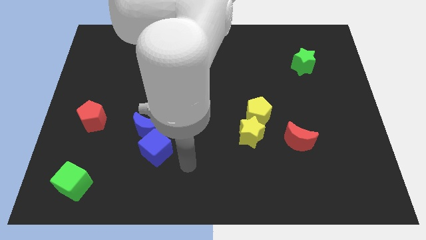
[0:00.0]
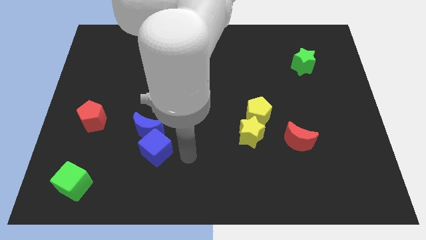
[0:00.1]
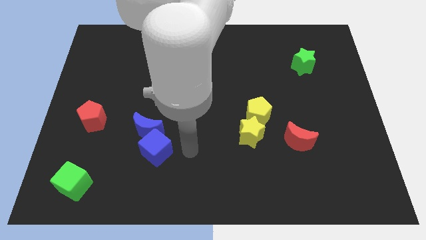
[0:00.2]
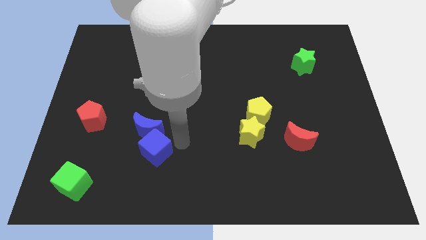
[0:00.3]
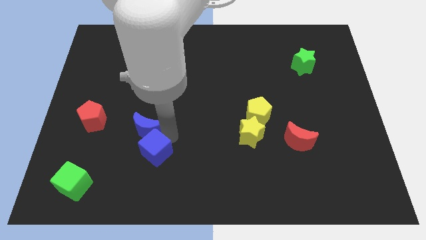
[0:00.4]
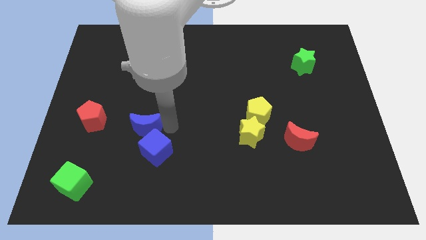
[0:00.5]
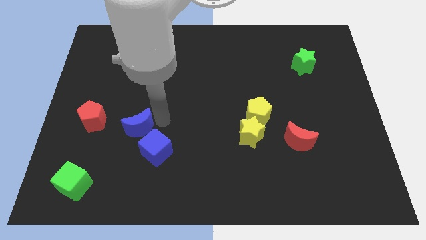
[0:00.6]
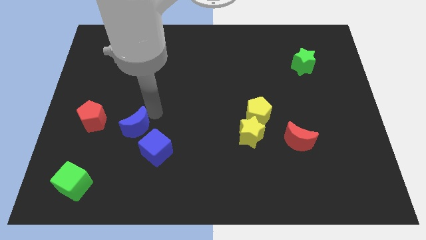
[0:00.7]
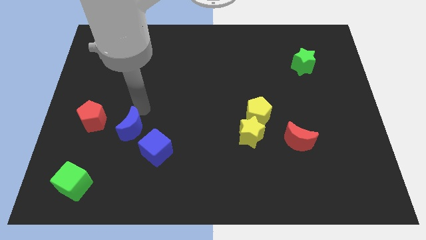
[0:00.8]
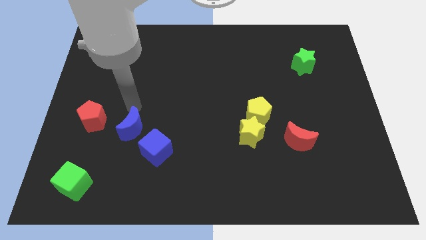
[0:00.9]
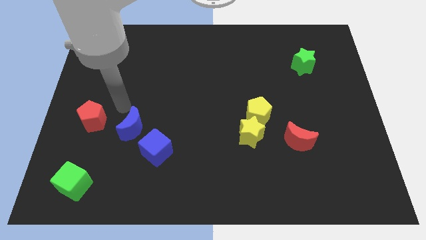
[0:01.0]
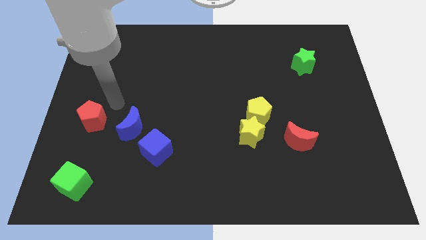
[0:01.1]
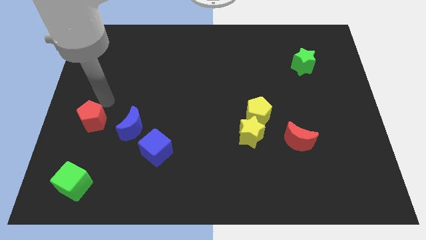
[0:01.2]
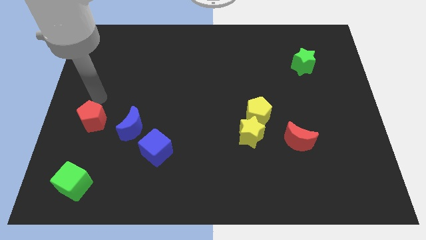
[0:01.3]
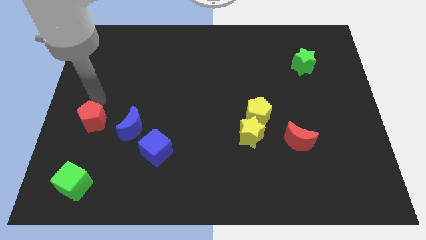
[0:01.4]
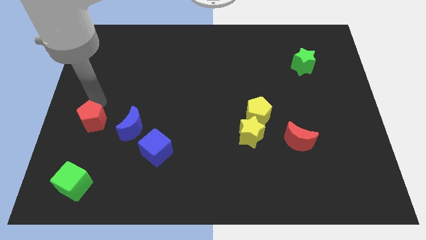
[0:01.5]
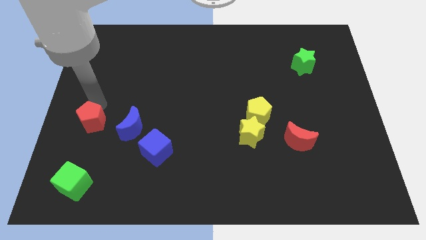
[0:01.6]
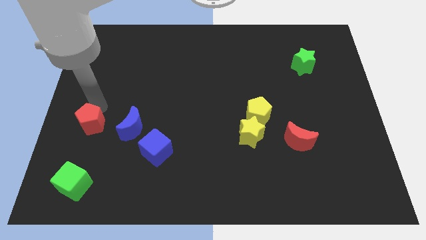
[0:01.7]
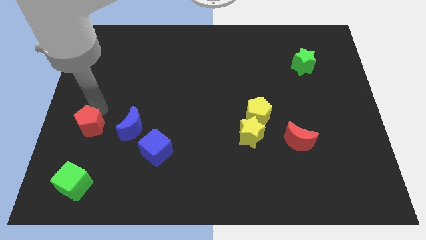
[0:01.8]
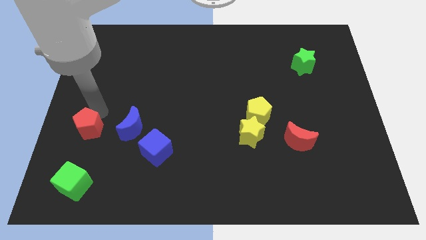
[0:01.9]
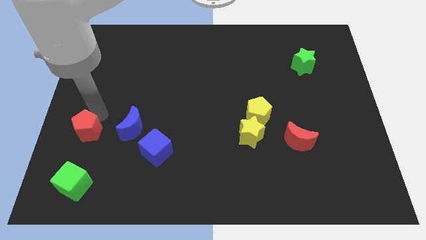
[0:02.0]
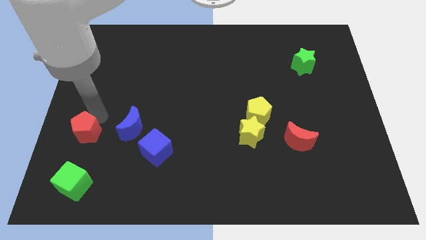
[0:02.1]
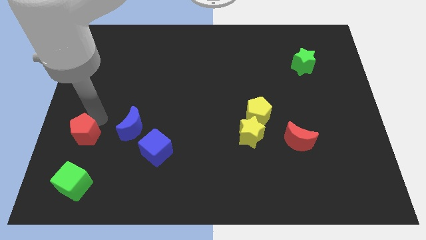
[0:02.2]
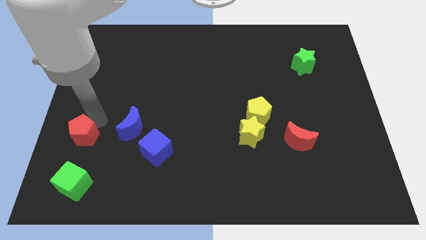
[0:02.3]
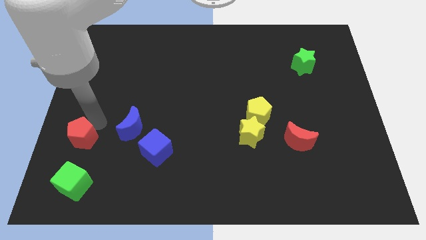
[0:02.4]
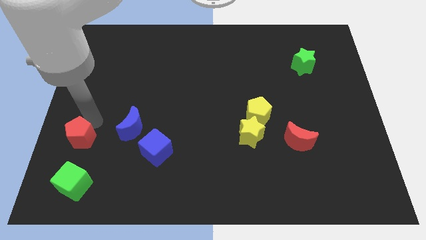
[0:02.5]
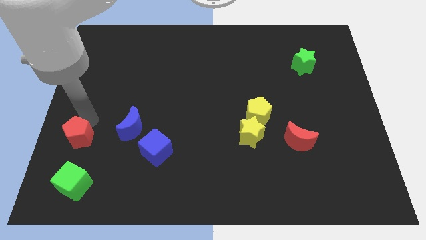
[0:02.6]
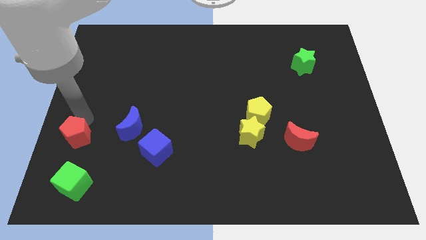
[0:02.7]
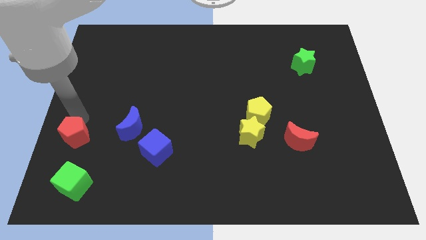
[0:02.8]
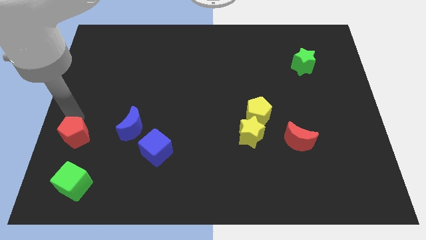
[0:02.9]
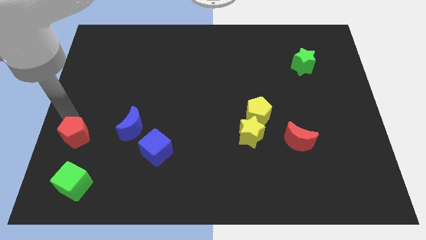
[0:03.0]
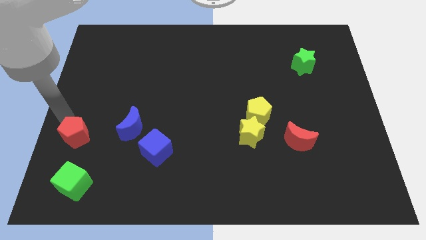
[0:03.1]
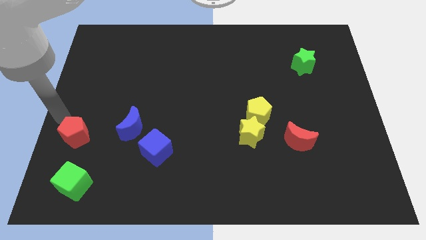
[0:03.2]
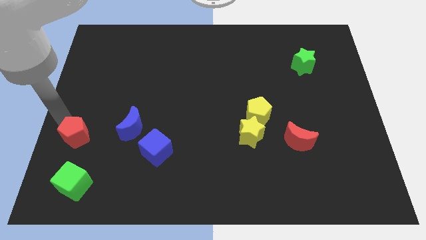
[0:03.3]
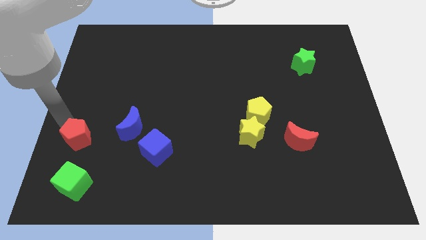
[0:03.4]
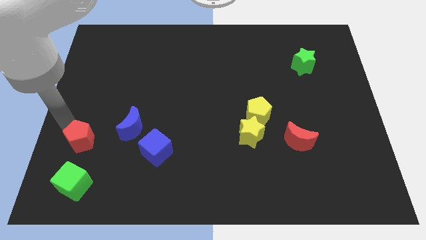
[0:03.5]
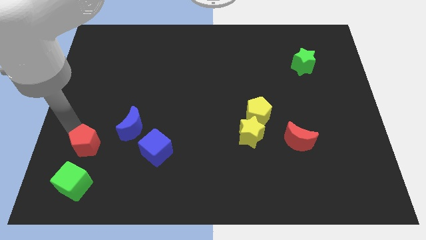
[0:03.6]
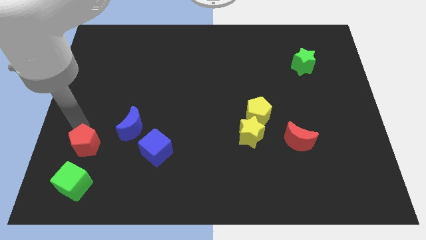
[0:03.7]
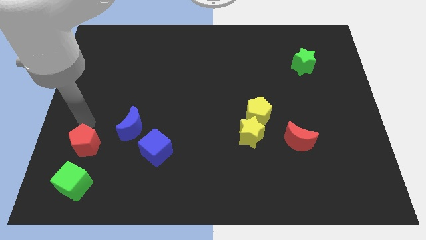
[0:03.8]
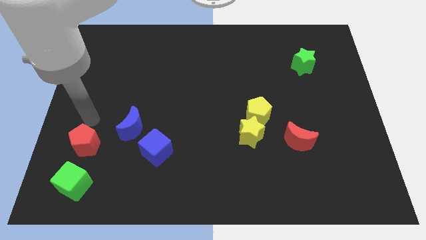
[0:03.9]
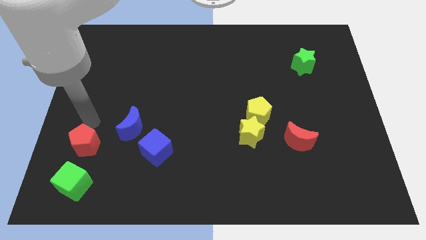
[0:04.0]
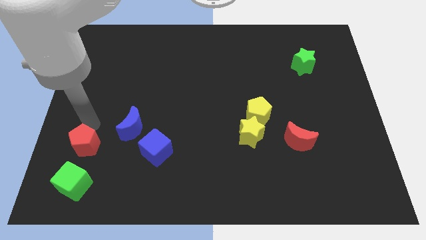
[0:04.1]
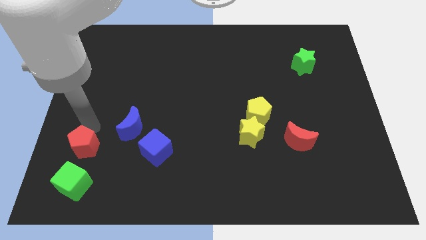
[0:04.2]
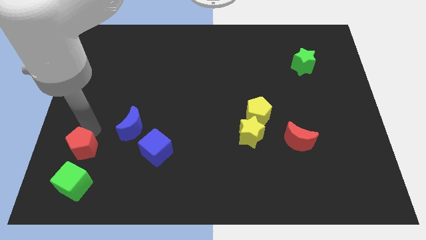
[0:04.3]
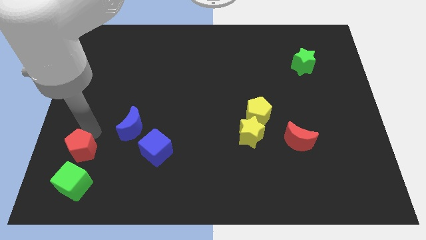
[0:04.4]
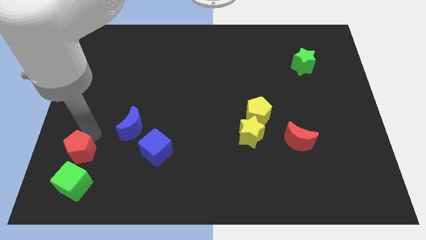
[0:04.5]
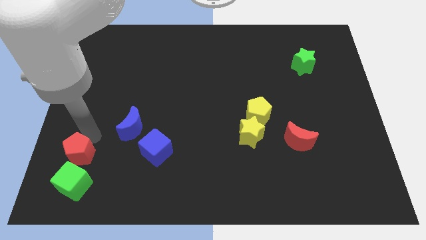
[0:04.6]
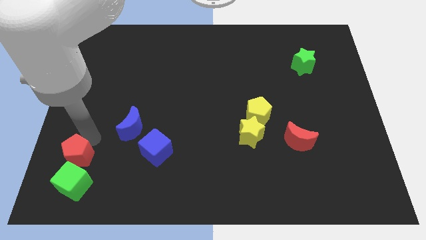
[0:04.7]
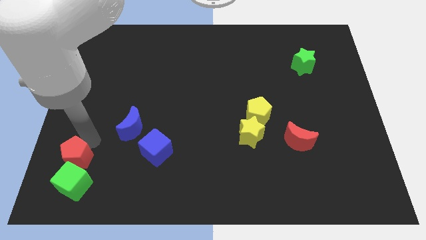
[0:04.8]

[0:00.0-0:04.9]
put the red pentagon close to the green cube

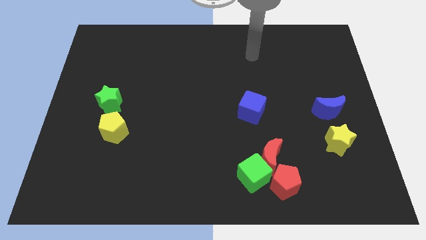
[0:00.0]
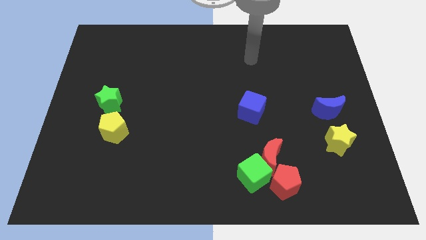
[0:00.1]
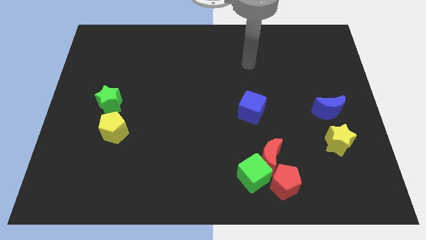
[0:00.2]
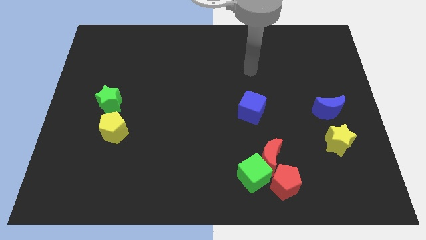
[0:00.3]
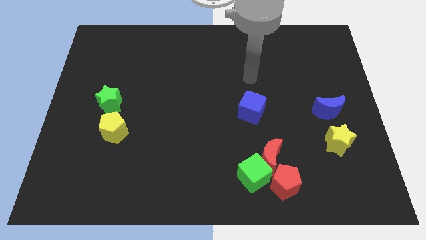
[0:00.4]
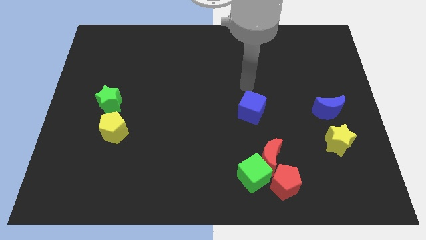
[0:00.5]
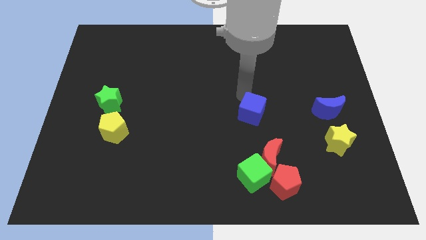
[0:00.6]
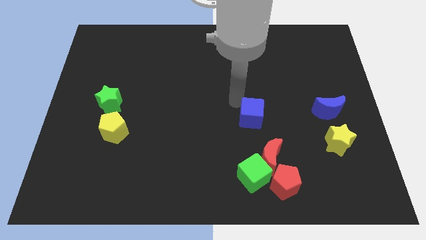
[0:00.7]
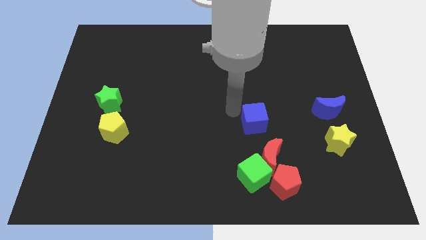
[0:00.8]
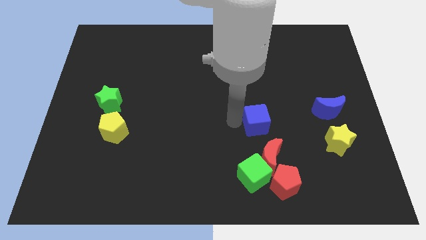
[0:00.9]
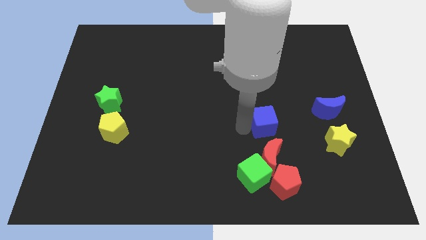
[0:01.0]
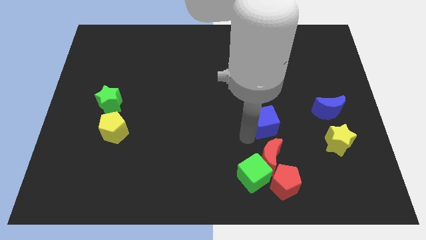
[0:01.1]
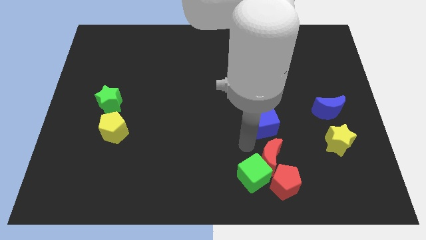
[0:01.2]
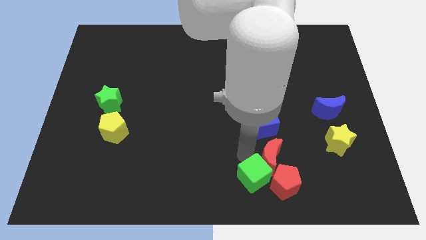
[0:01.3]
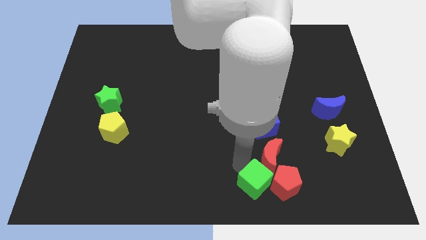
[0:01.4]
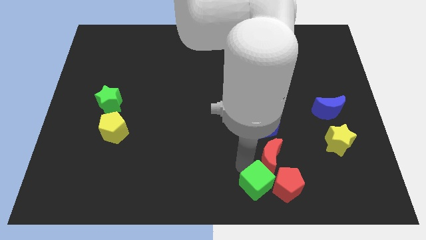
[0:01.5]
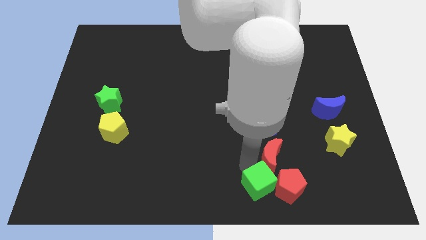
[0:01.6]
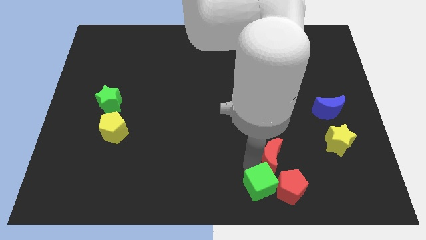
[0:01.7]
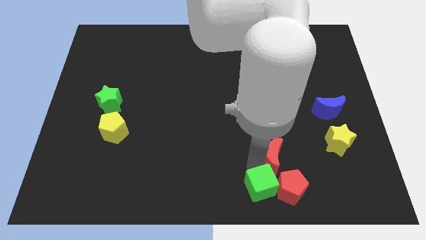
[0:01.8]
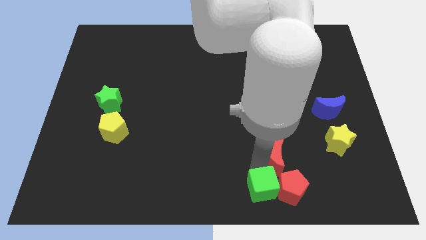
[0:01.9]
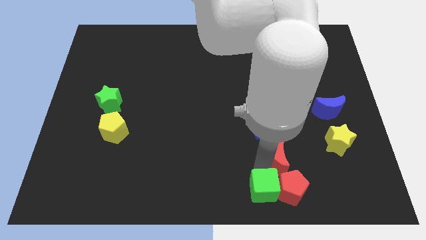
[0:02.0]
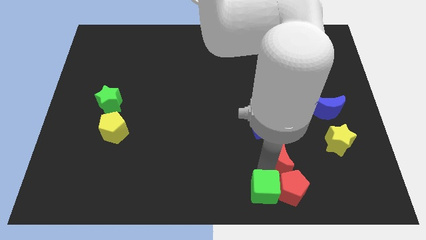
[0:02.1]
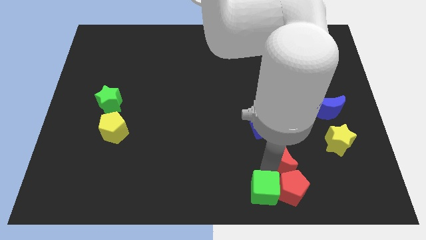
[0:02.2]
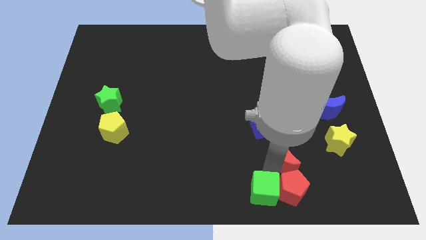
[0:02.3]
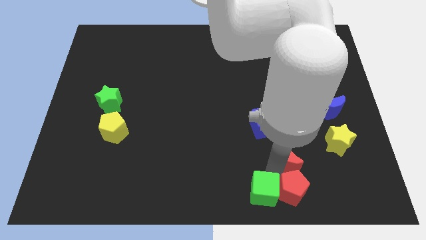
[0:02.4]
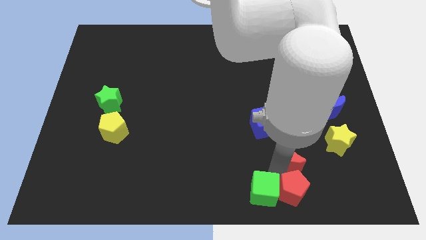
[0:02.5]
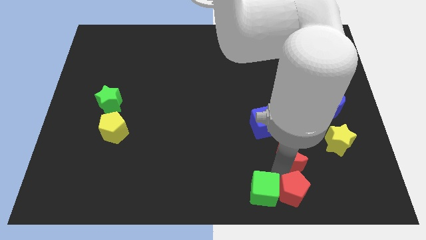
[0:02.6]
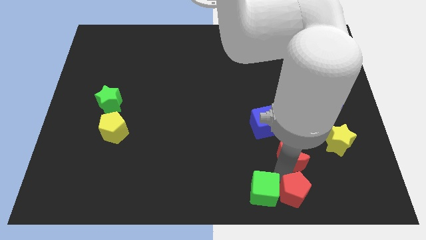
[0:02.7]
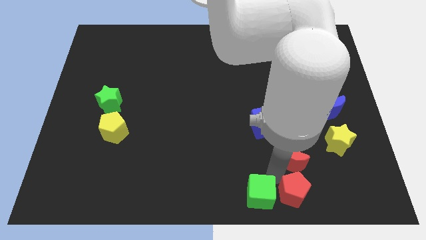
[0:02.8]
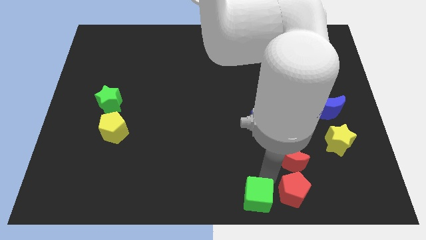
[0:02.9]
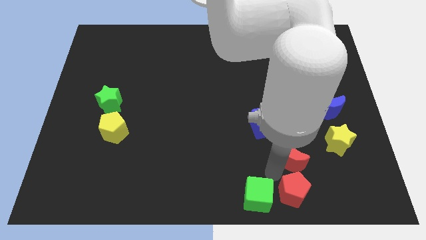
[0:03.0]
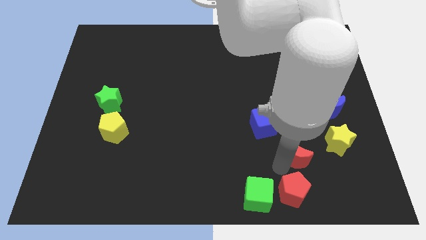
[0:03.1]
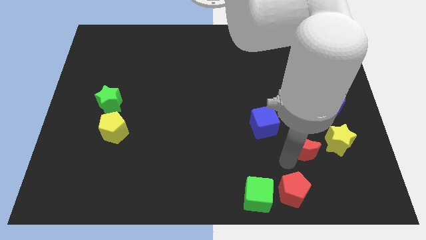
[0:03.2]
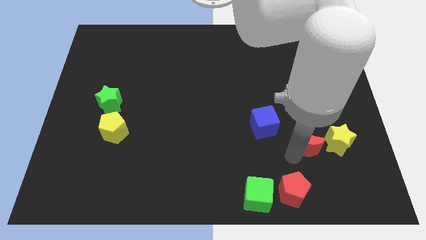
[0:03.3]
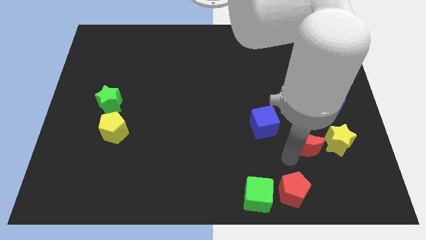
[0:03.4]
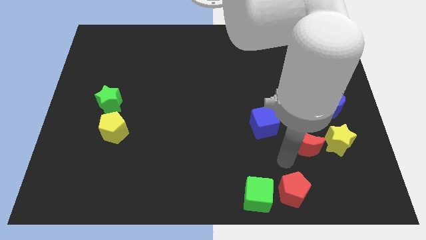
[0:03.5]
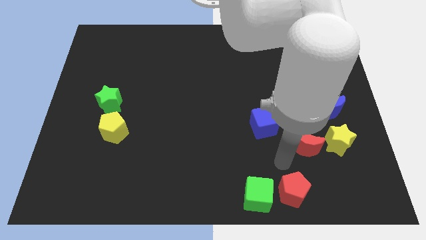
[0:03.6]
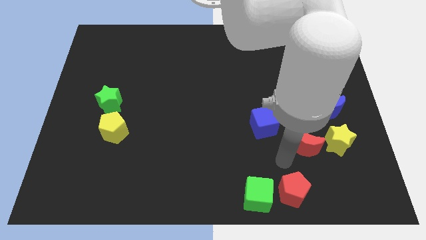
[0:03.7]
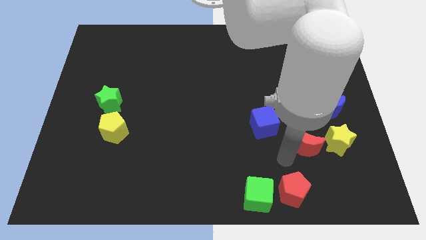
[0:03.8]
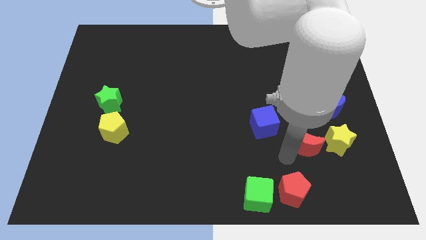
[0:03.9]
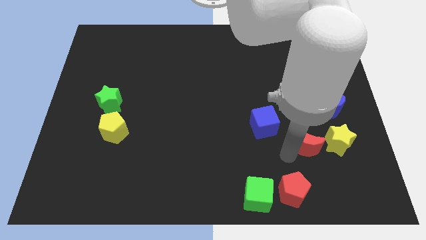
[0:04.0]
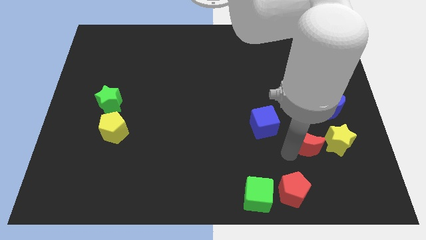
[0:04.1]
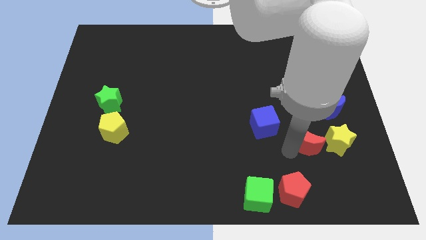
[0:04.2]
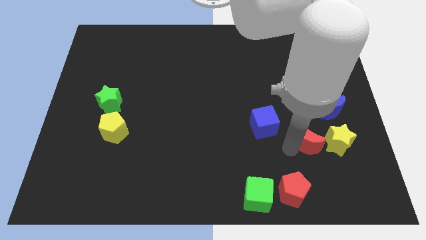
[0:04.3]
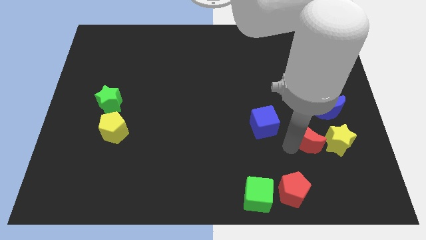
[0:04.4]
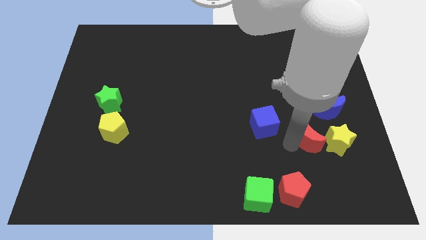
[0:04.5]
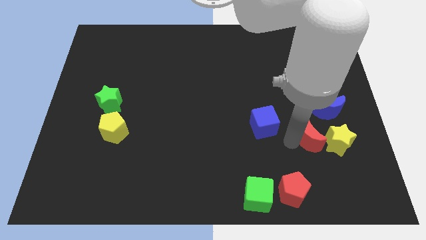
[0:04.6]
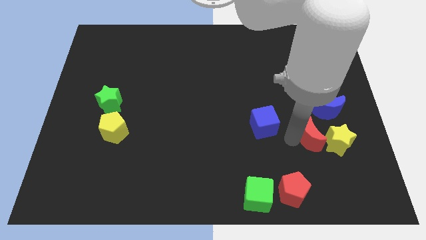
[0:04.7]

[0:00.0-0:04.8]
move the red moon to the yellow star
